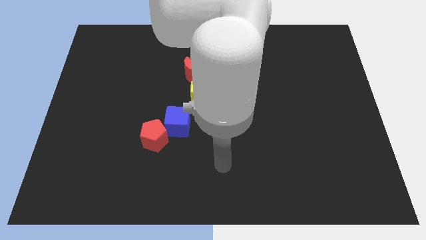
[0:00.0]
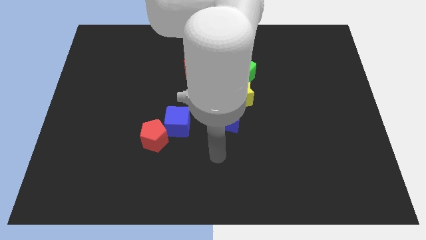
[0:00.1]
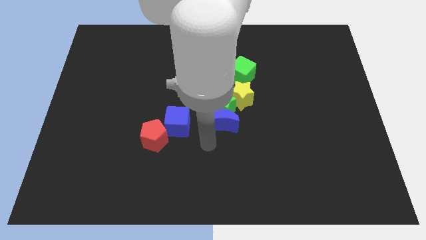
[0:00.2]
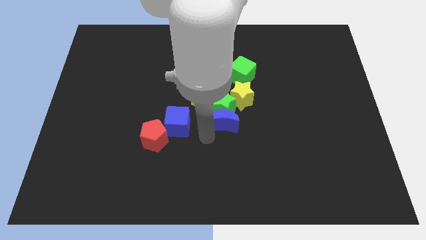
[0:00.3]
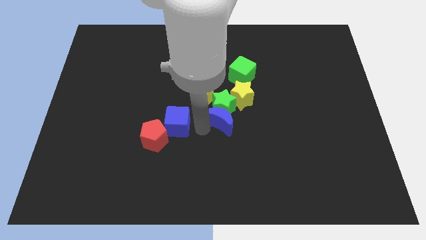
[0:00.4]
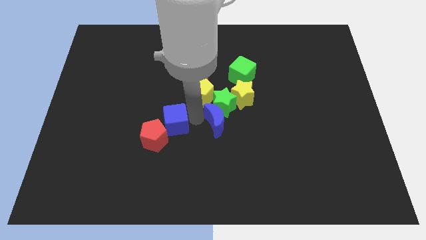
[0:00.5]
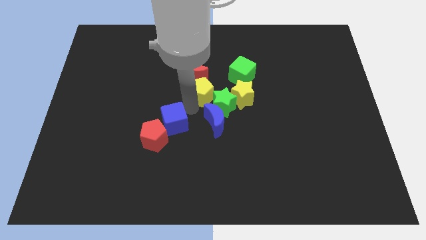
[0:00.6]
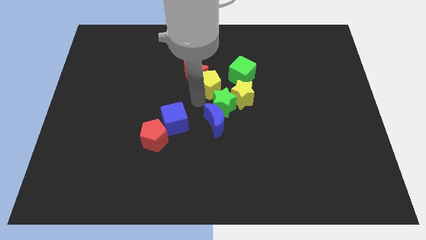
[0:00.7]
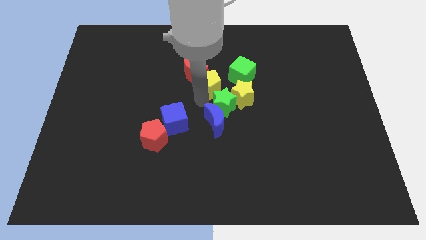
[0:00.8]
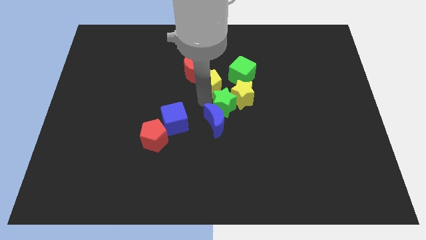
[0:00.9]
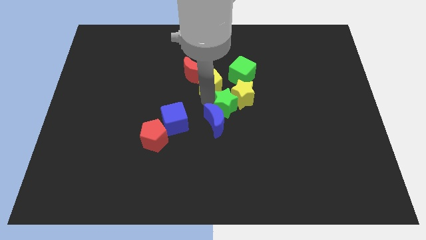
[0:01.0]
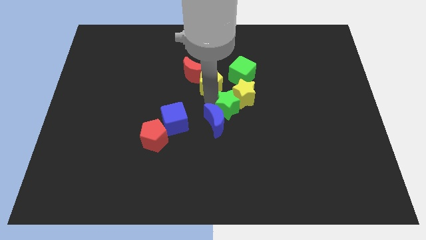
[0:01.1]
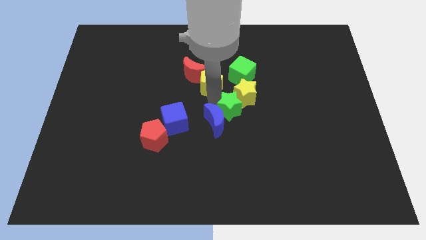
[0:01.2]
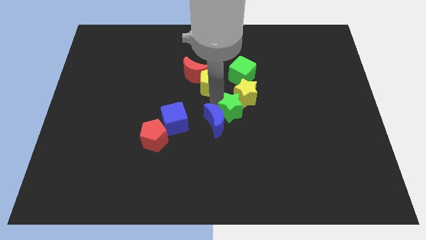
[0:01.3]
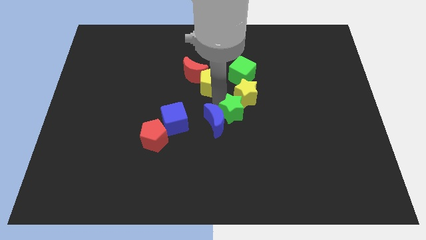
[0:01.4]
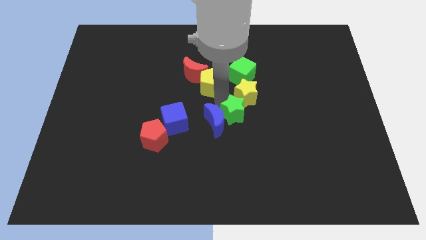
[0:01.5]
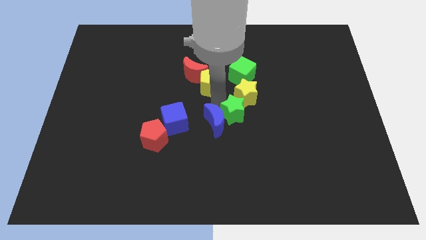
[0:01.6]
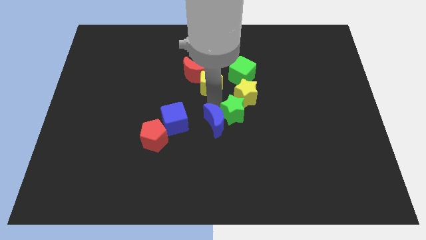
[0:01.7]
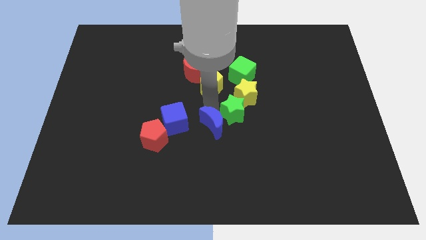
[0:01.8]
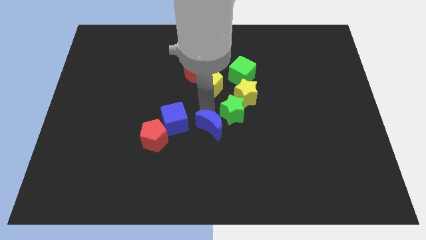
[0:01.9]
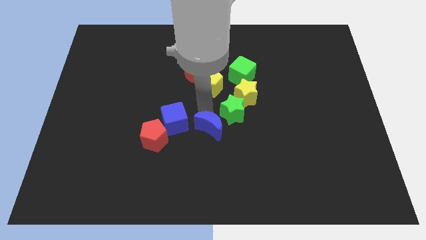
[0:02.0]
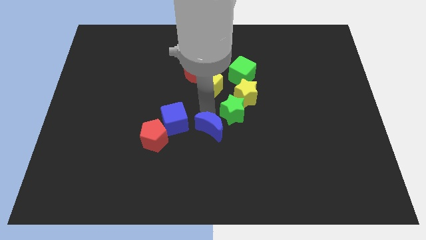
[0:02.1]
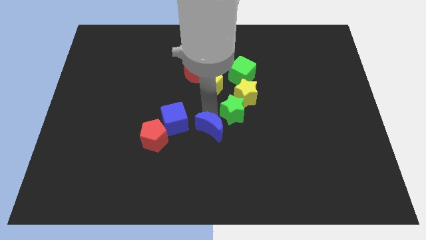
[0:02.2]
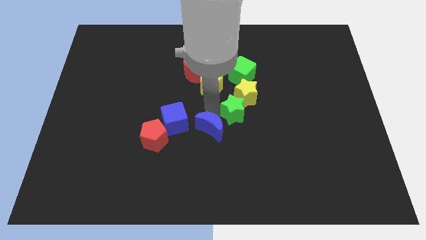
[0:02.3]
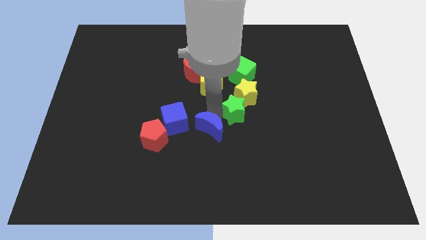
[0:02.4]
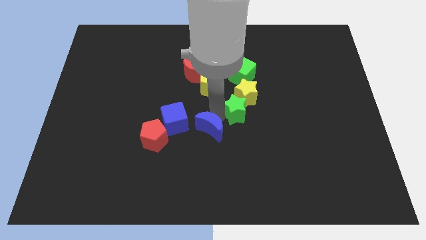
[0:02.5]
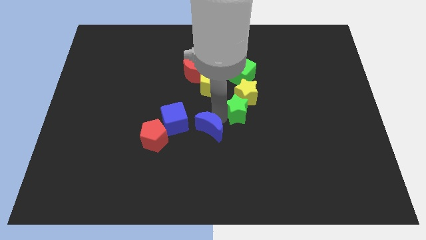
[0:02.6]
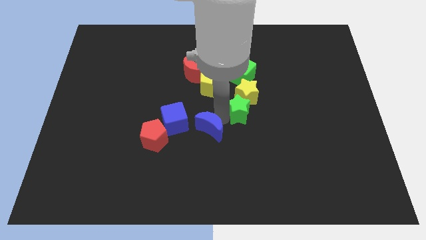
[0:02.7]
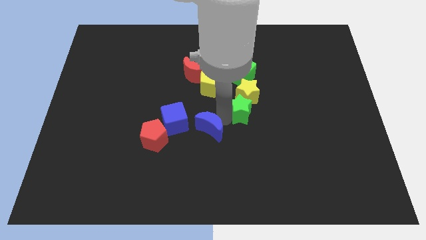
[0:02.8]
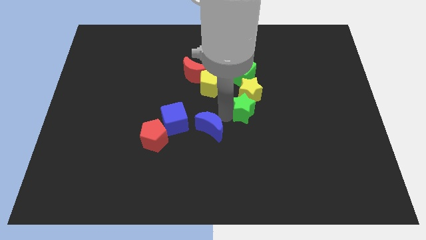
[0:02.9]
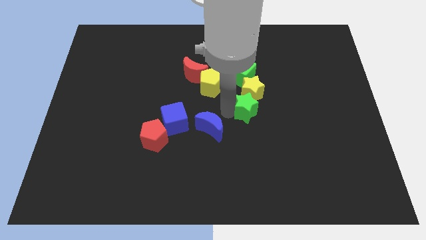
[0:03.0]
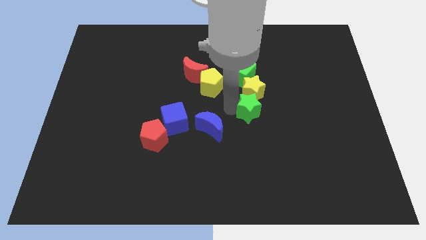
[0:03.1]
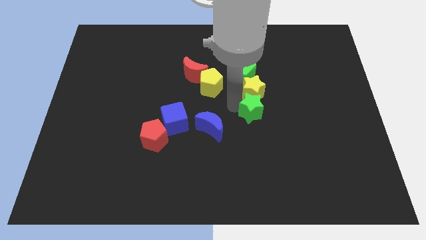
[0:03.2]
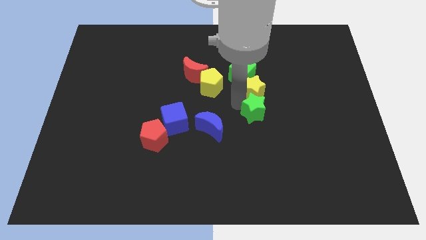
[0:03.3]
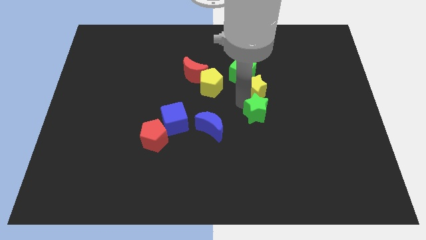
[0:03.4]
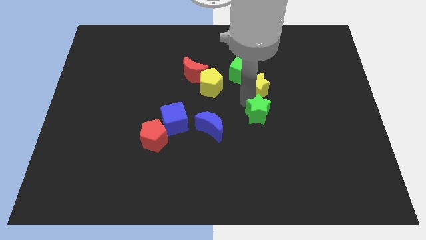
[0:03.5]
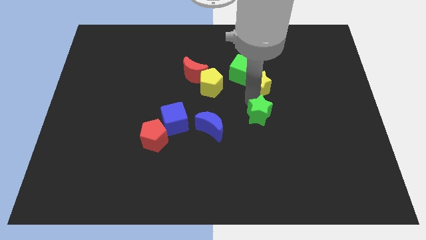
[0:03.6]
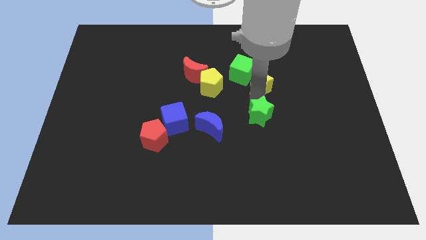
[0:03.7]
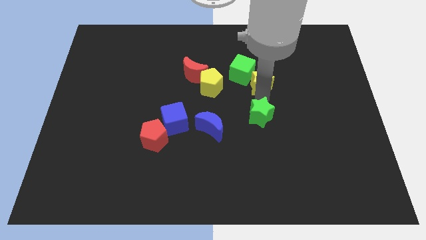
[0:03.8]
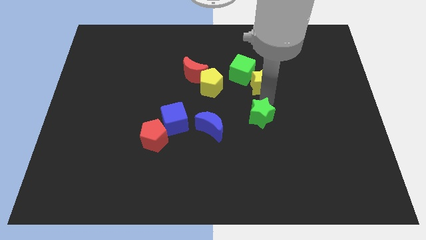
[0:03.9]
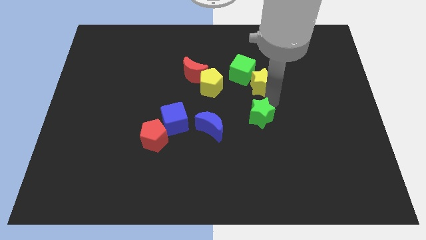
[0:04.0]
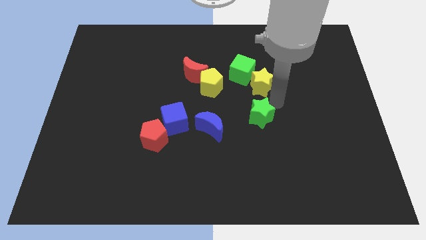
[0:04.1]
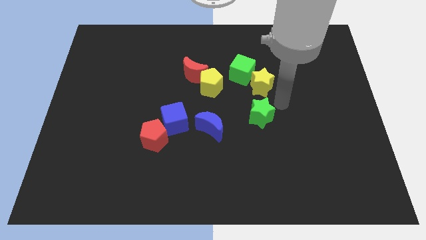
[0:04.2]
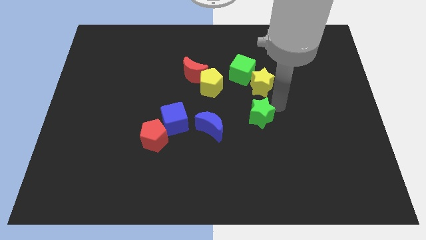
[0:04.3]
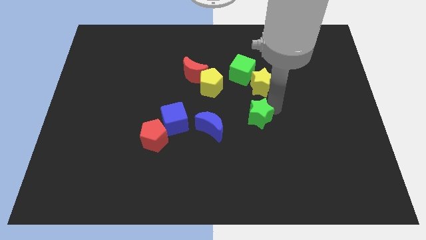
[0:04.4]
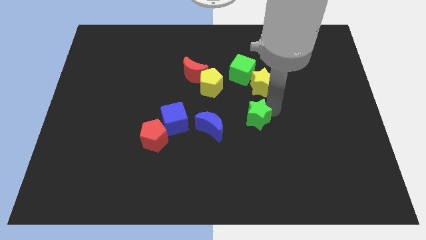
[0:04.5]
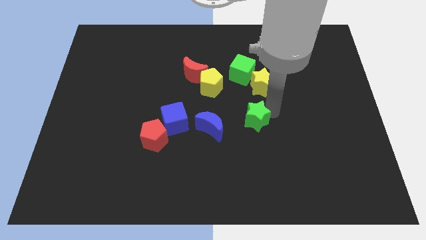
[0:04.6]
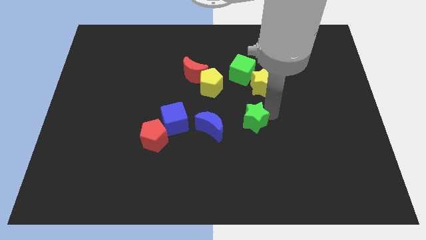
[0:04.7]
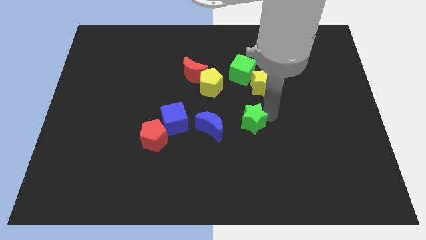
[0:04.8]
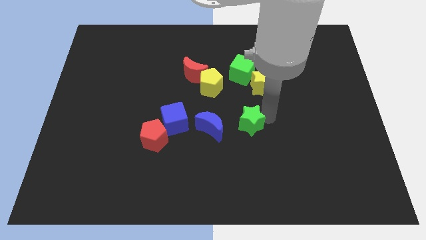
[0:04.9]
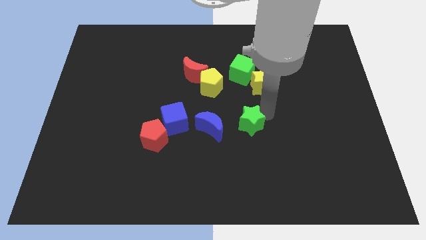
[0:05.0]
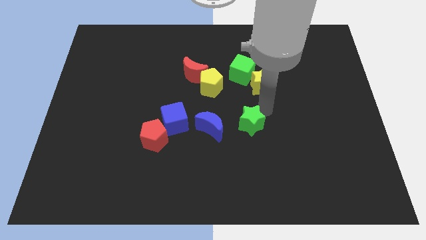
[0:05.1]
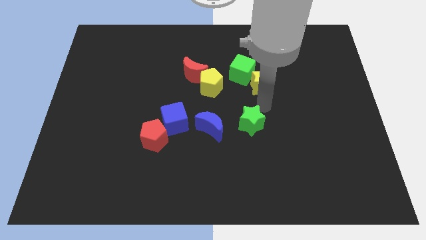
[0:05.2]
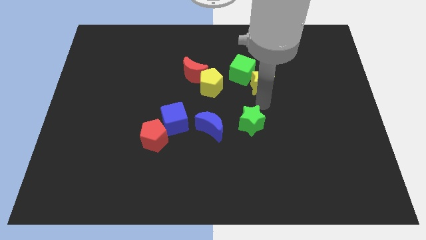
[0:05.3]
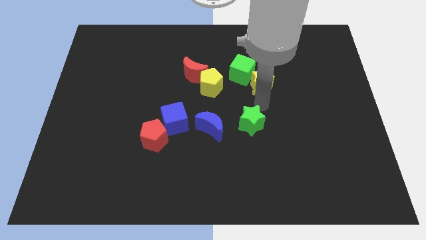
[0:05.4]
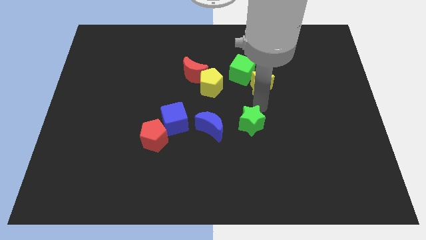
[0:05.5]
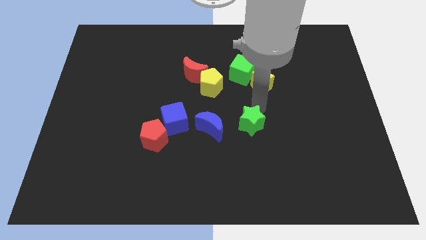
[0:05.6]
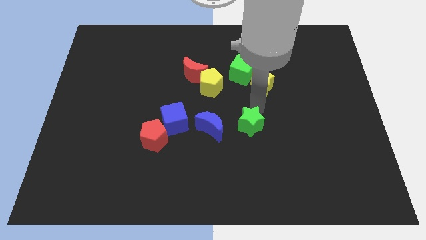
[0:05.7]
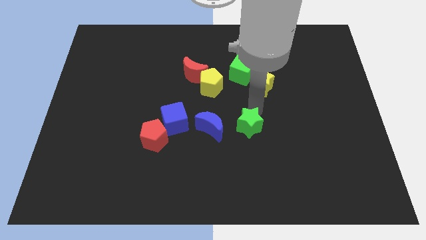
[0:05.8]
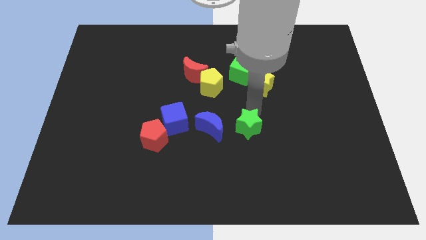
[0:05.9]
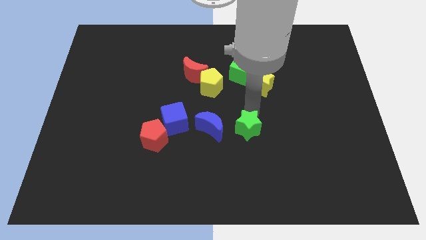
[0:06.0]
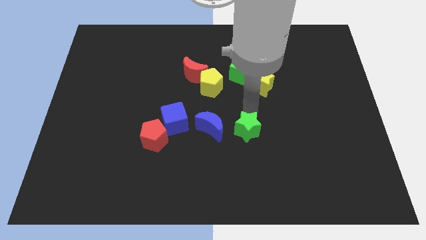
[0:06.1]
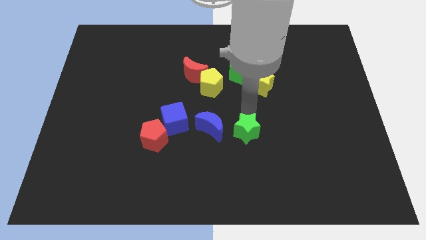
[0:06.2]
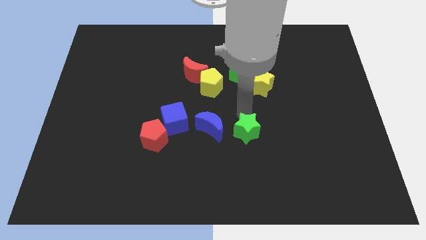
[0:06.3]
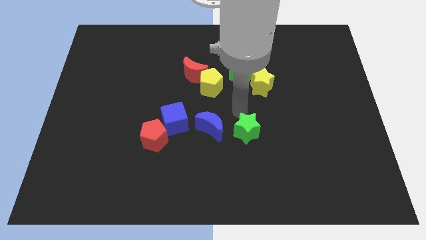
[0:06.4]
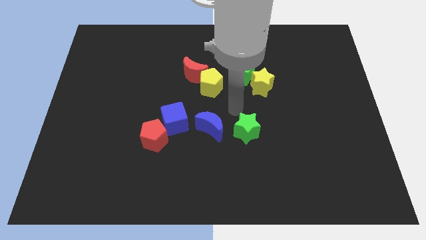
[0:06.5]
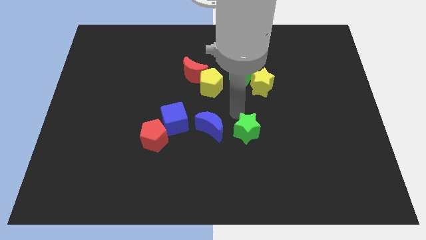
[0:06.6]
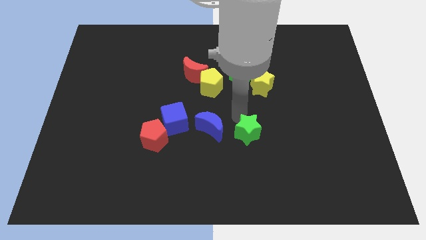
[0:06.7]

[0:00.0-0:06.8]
move the green star away from the group

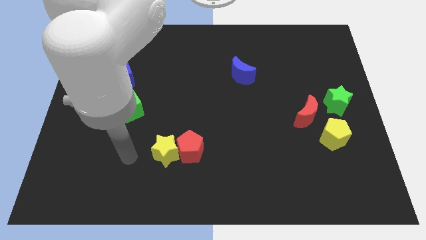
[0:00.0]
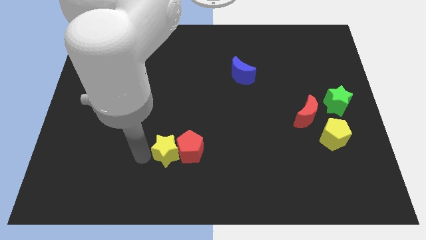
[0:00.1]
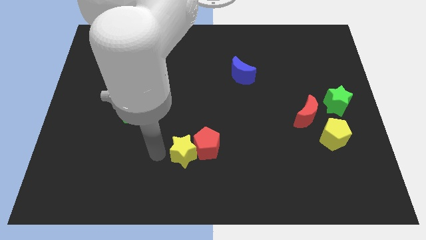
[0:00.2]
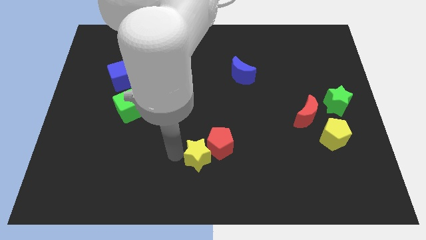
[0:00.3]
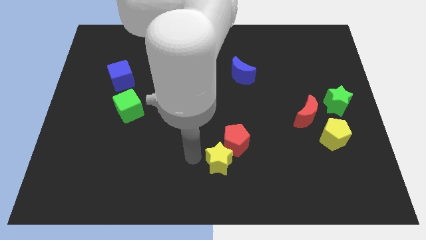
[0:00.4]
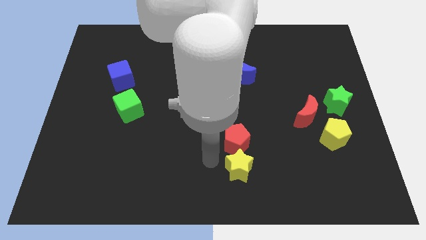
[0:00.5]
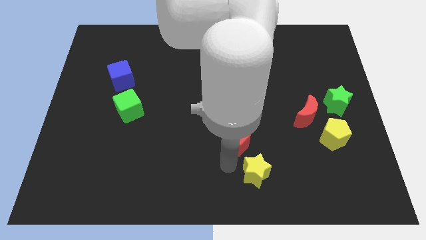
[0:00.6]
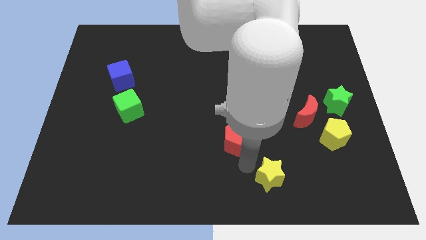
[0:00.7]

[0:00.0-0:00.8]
pull the red pentagon apart from the yellow star

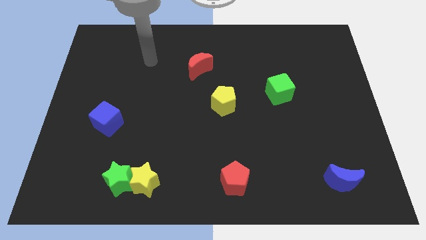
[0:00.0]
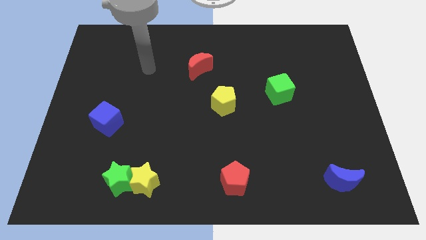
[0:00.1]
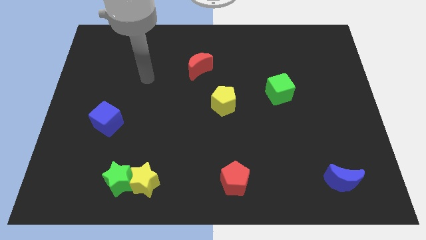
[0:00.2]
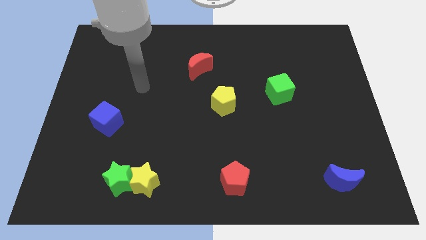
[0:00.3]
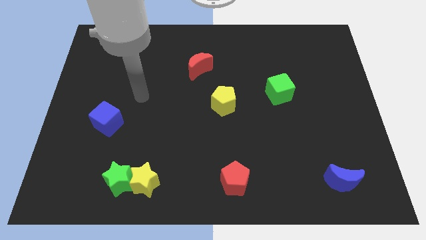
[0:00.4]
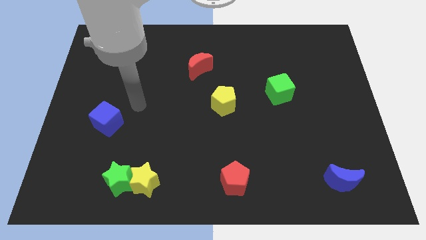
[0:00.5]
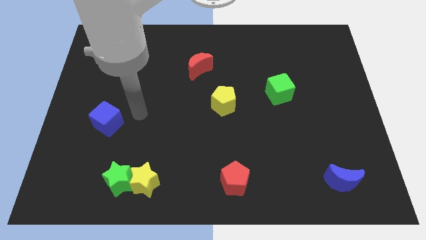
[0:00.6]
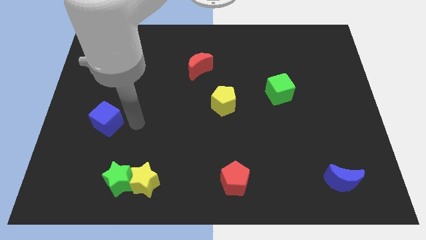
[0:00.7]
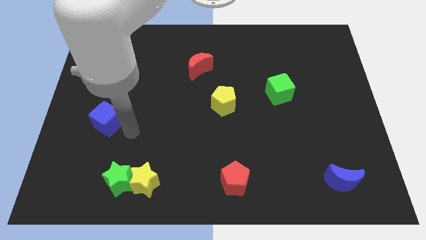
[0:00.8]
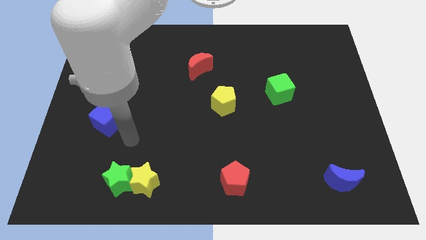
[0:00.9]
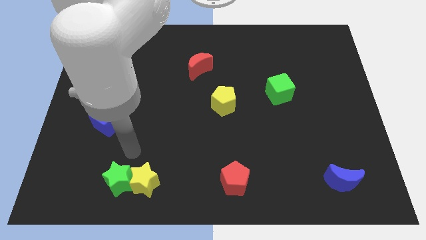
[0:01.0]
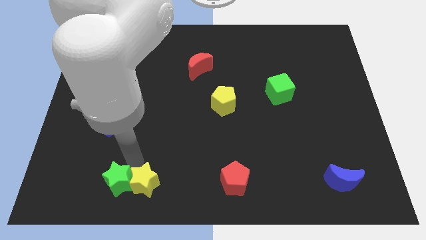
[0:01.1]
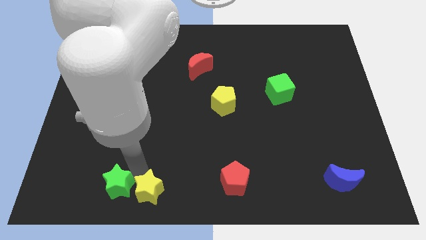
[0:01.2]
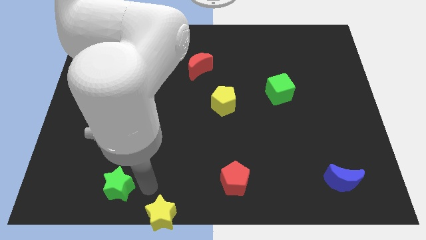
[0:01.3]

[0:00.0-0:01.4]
move the green star away from the yellow star

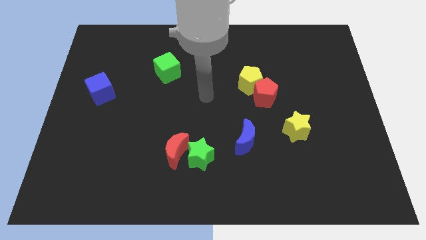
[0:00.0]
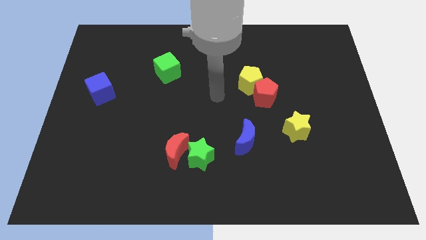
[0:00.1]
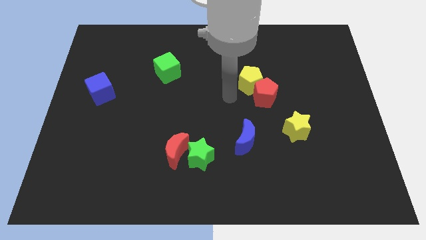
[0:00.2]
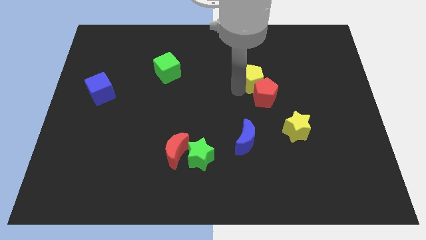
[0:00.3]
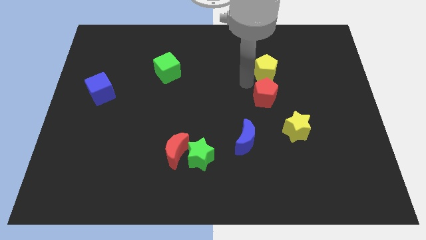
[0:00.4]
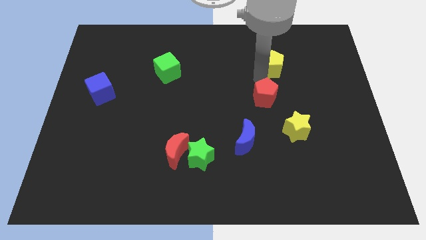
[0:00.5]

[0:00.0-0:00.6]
pull the red pentagon apart from the yellow pentagon
